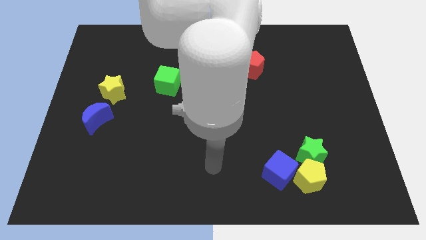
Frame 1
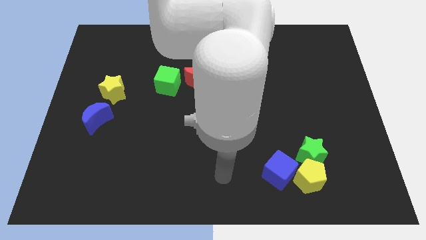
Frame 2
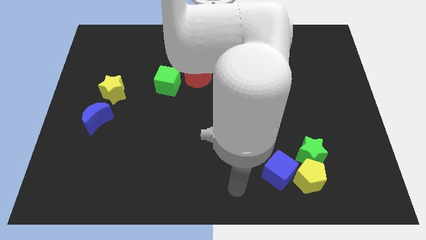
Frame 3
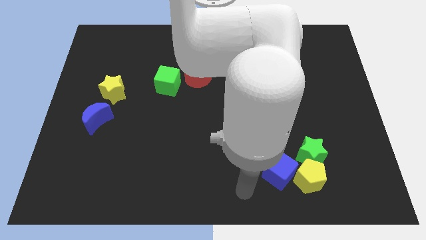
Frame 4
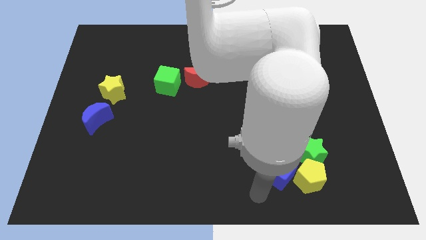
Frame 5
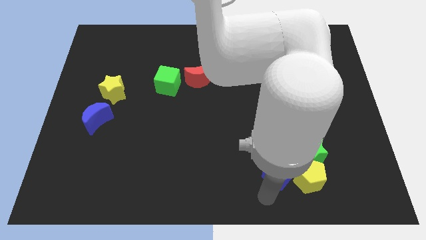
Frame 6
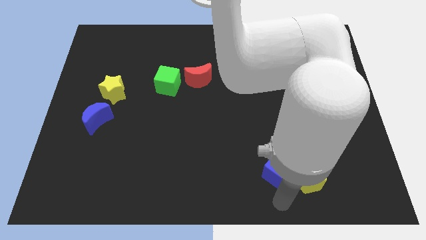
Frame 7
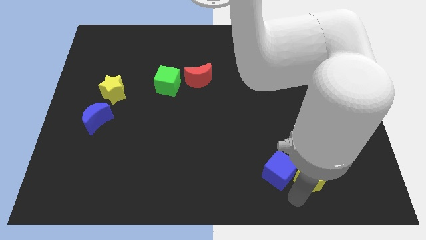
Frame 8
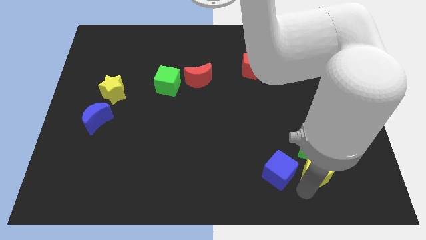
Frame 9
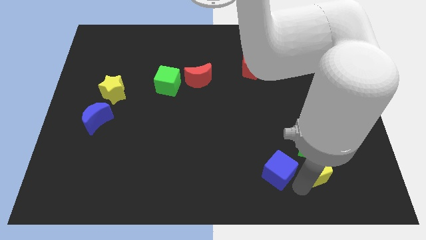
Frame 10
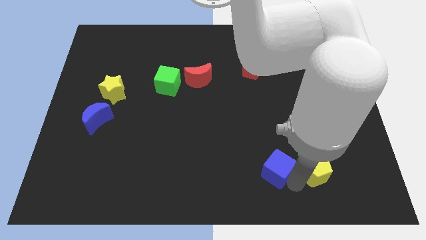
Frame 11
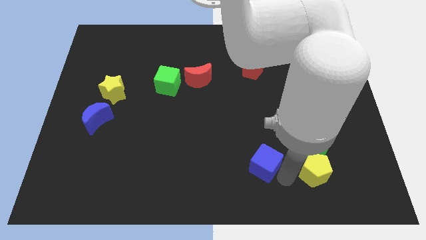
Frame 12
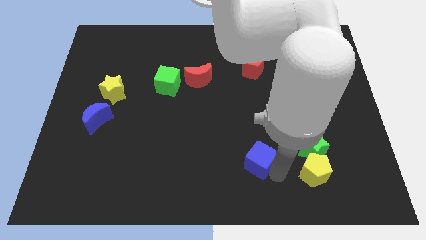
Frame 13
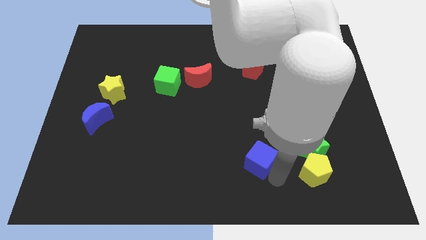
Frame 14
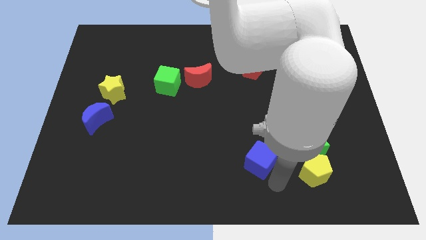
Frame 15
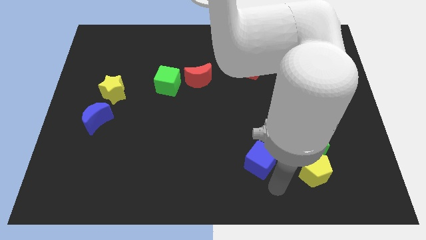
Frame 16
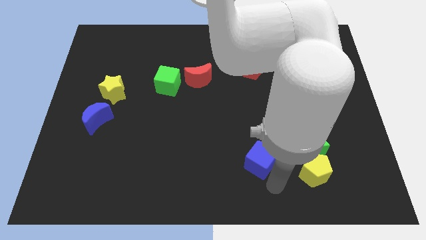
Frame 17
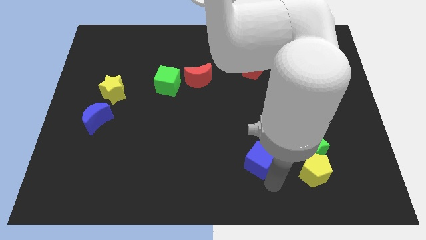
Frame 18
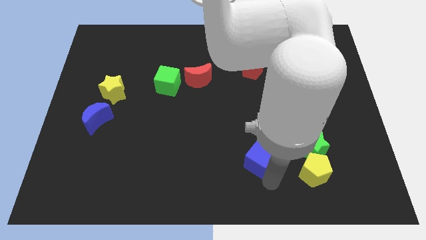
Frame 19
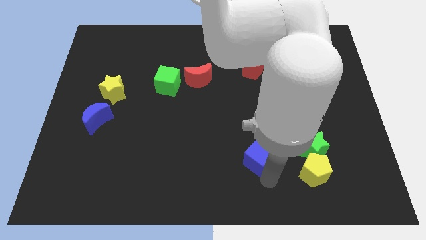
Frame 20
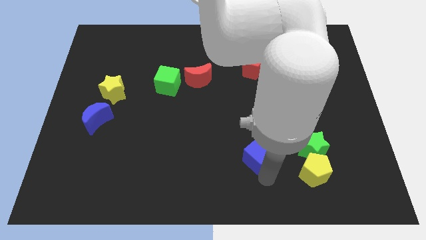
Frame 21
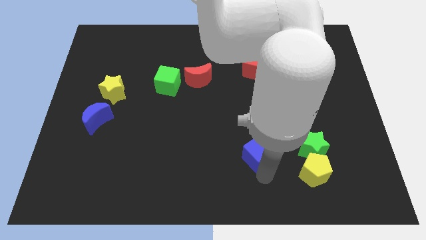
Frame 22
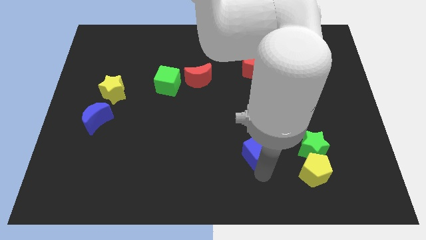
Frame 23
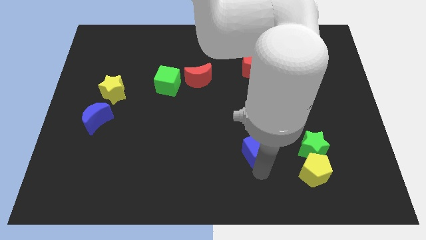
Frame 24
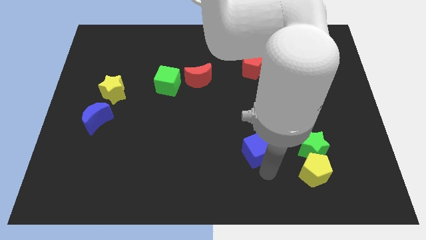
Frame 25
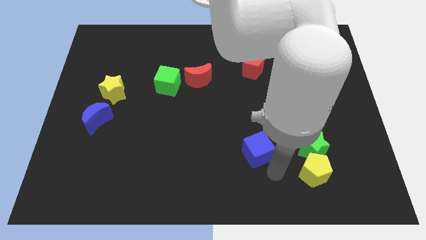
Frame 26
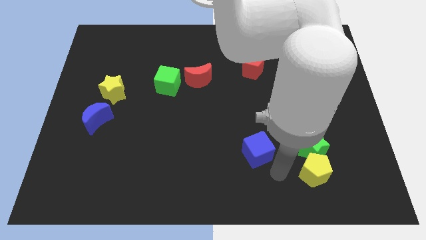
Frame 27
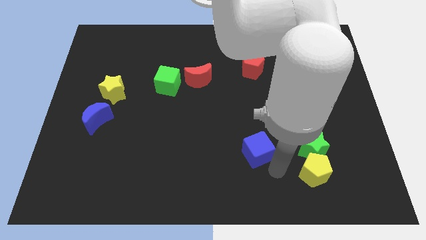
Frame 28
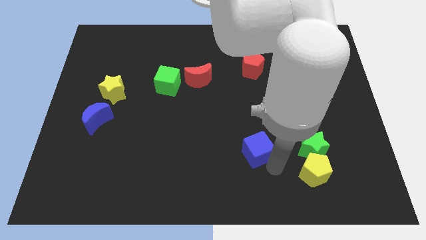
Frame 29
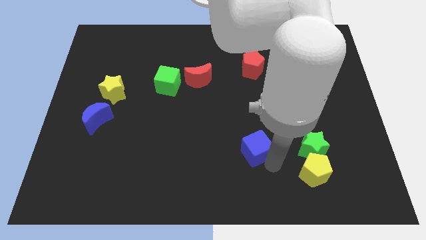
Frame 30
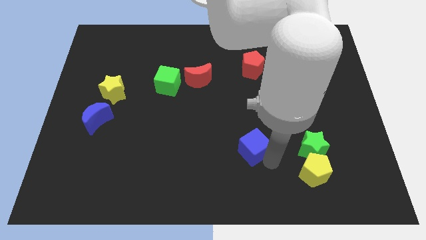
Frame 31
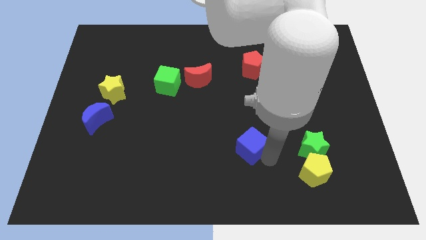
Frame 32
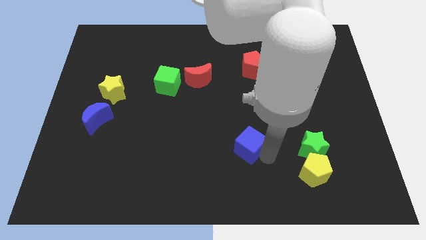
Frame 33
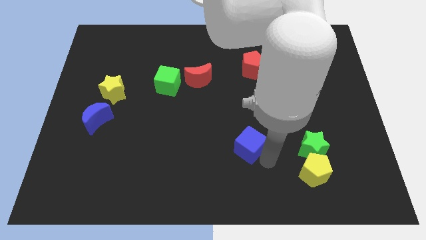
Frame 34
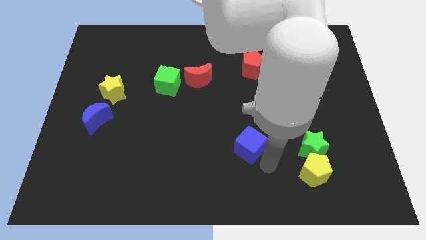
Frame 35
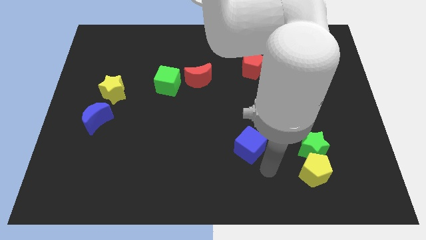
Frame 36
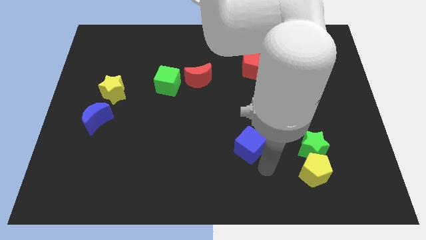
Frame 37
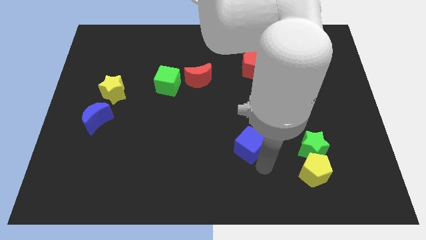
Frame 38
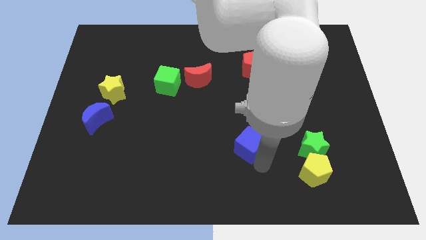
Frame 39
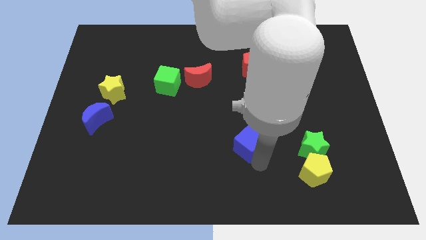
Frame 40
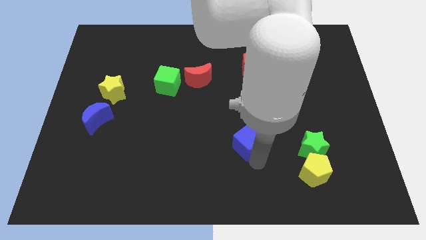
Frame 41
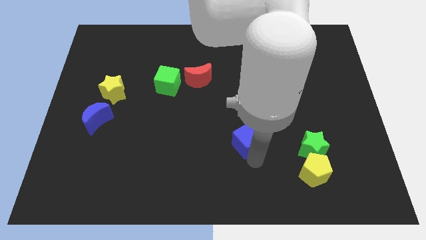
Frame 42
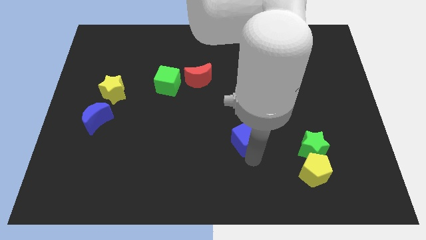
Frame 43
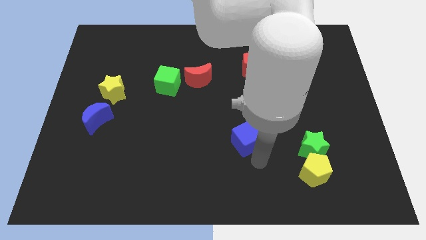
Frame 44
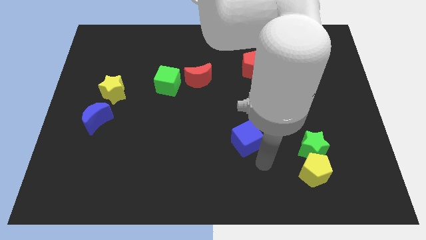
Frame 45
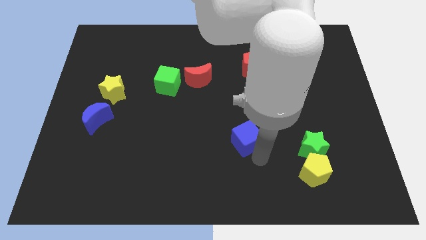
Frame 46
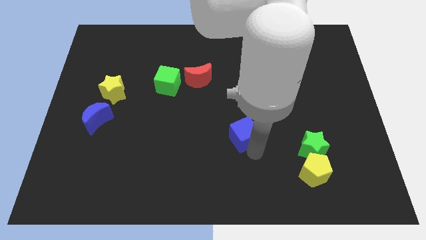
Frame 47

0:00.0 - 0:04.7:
put the blue cube to the center

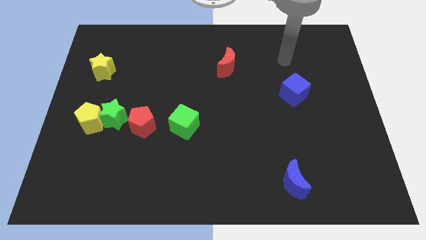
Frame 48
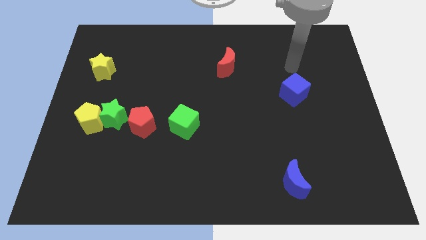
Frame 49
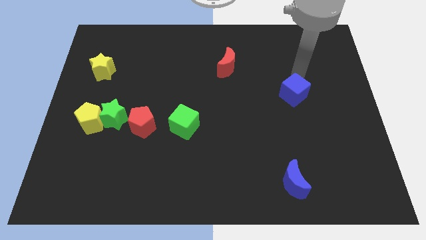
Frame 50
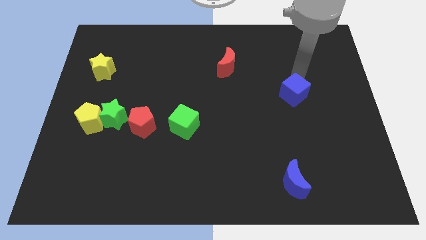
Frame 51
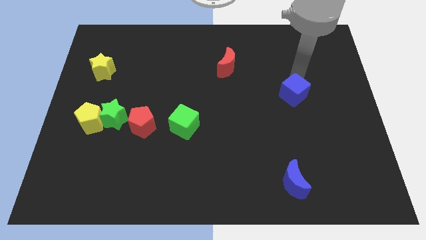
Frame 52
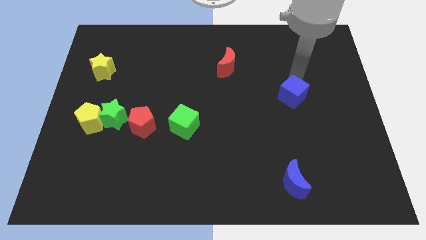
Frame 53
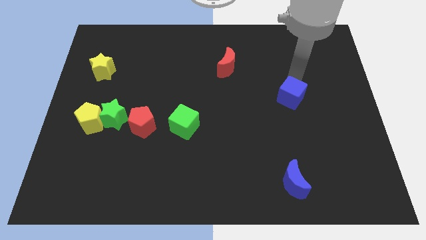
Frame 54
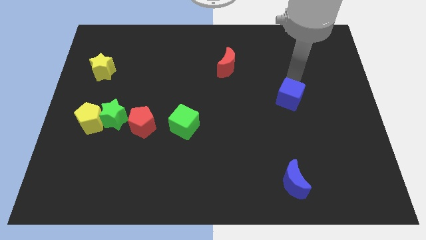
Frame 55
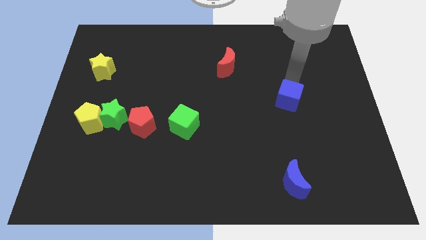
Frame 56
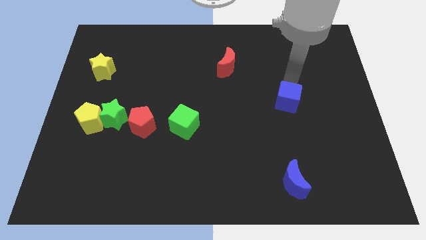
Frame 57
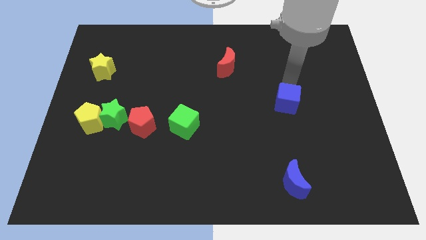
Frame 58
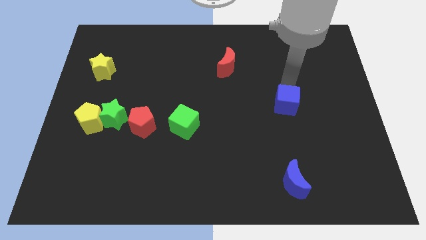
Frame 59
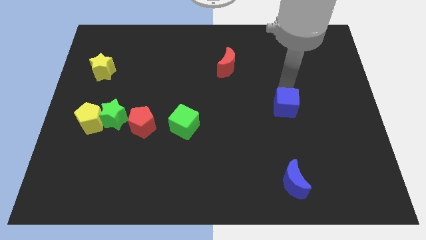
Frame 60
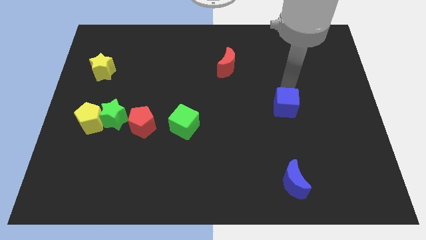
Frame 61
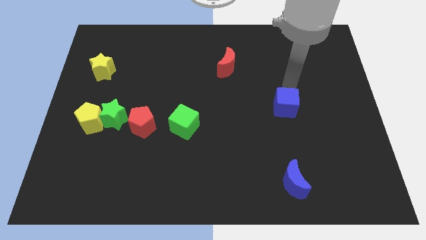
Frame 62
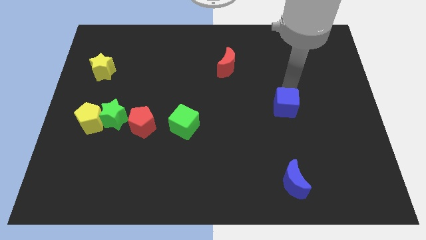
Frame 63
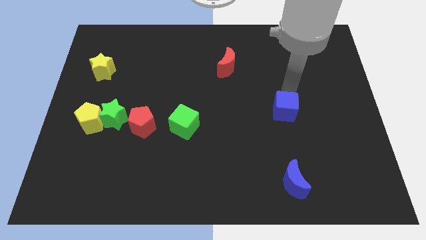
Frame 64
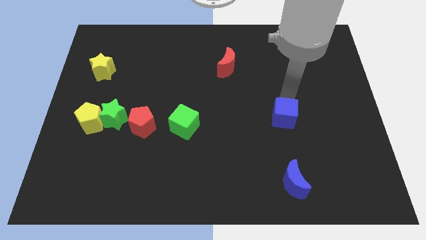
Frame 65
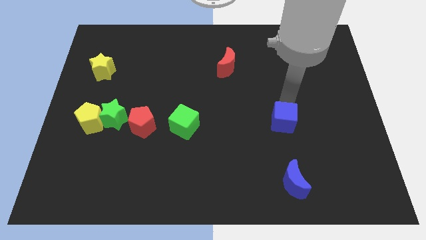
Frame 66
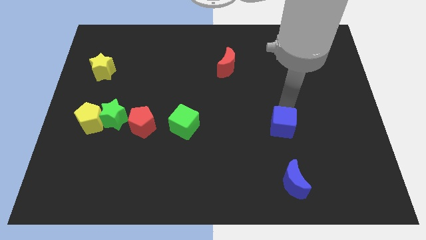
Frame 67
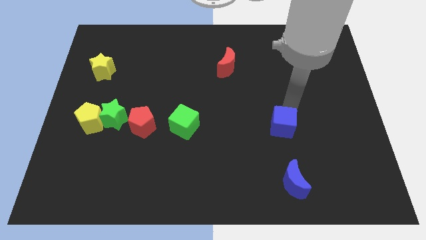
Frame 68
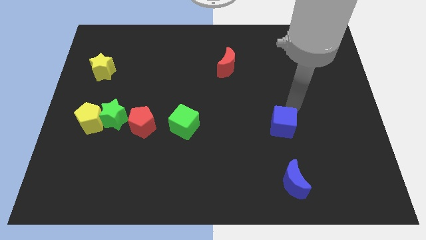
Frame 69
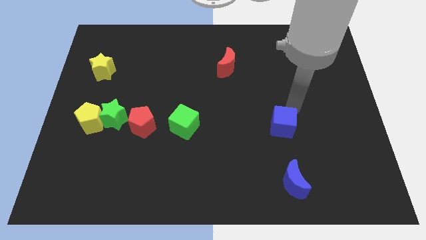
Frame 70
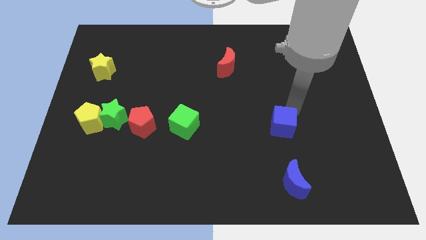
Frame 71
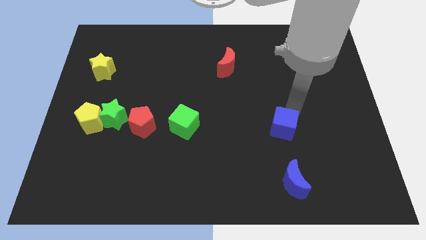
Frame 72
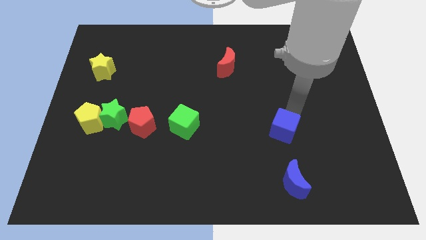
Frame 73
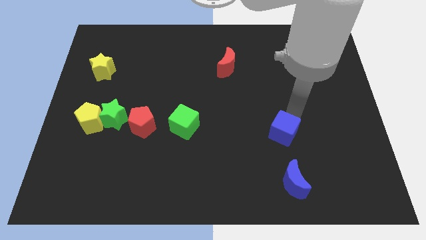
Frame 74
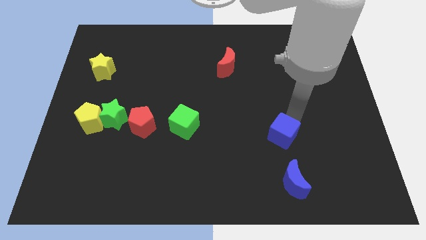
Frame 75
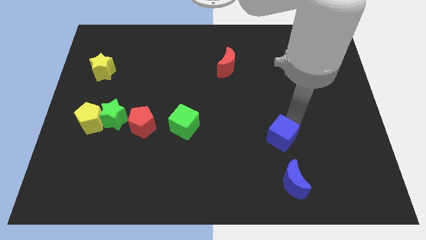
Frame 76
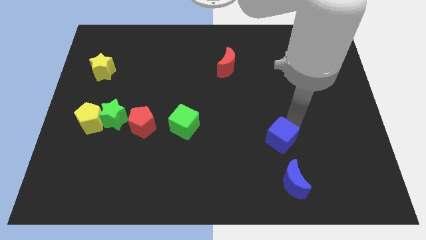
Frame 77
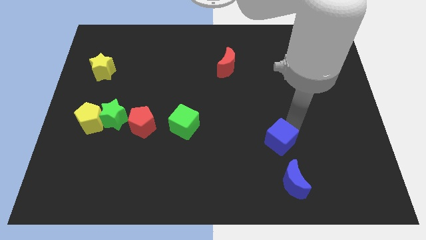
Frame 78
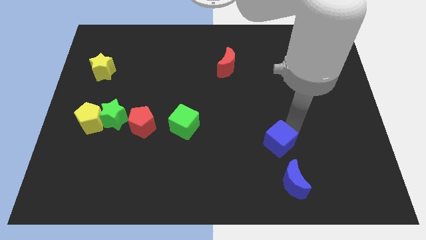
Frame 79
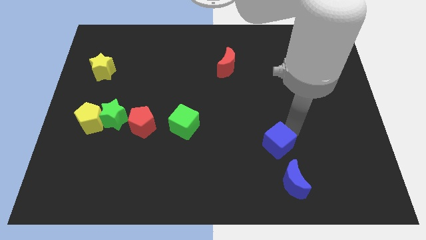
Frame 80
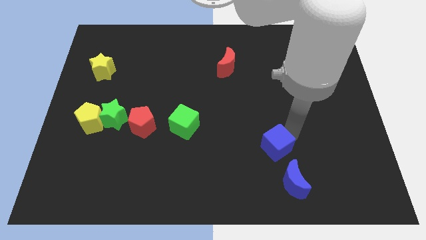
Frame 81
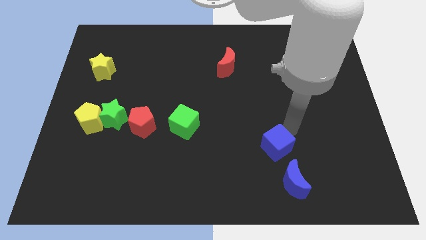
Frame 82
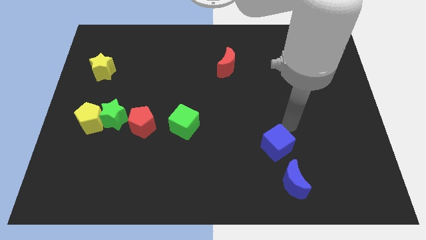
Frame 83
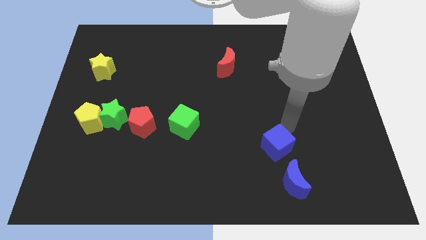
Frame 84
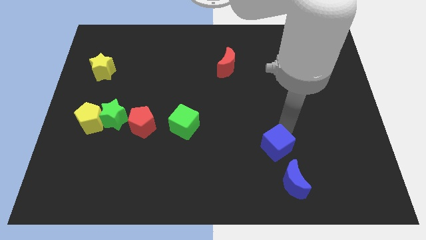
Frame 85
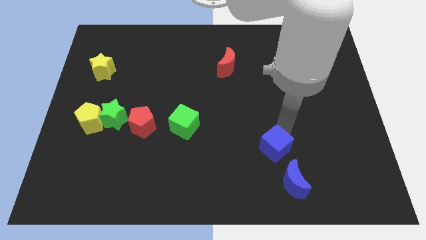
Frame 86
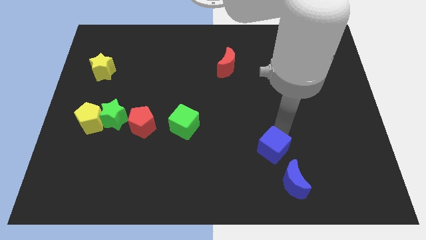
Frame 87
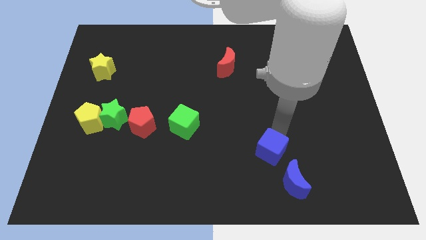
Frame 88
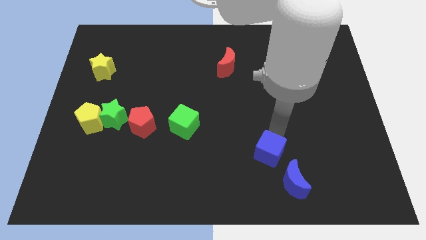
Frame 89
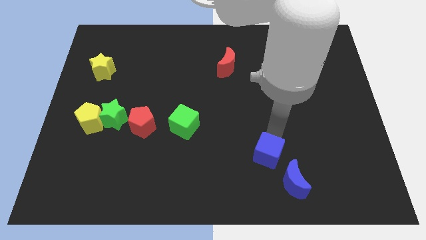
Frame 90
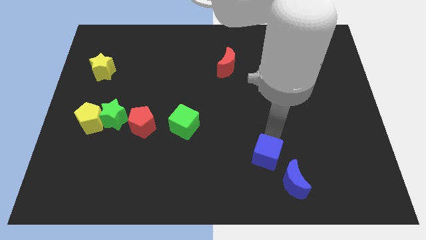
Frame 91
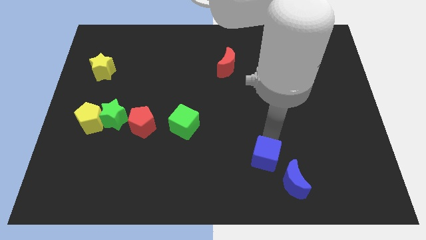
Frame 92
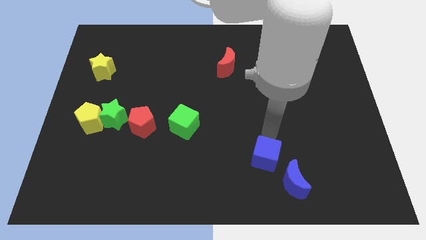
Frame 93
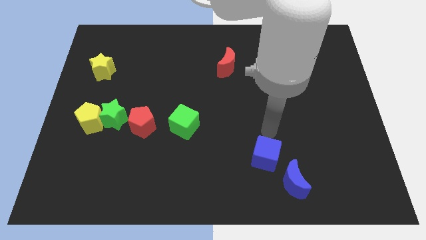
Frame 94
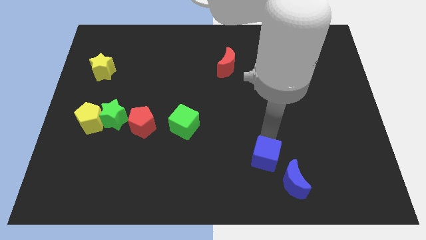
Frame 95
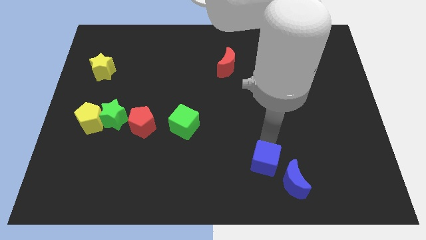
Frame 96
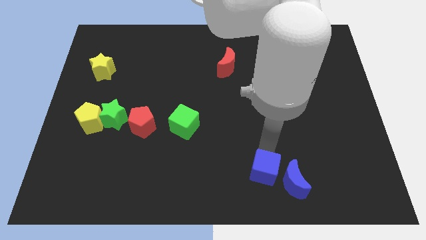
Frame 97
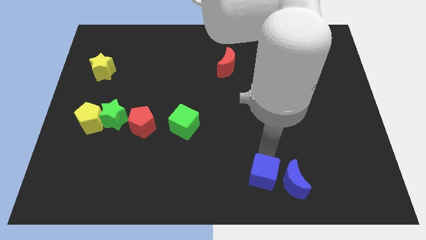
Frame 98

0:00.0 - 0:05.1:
put the blue cube to the bottom side
